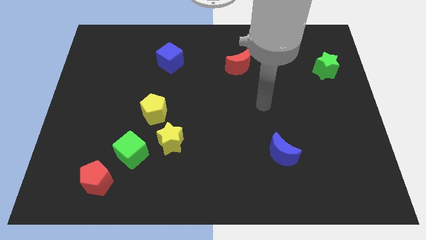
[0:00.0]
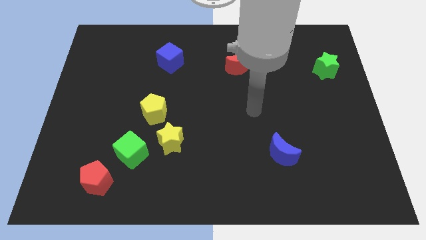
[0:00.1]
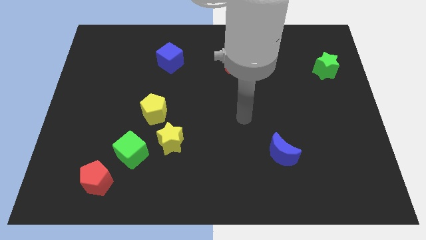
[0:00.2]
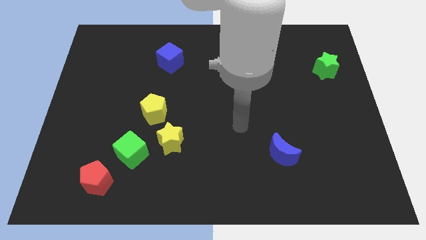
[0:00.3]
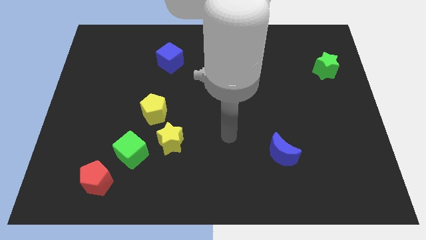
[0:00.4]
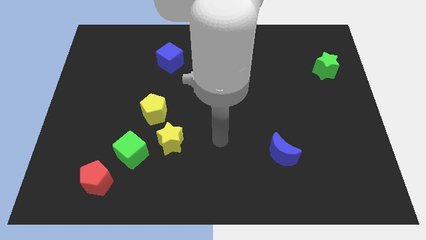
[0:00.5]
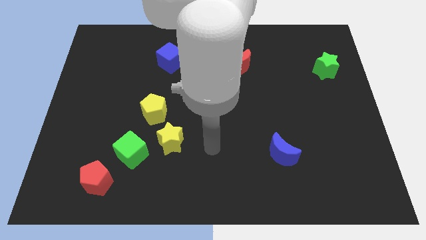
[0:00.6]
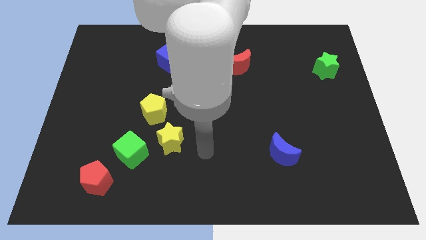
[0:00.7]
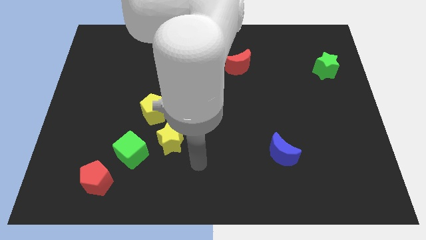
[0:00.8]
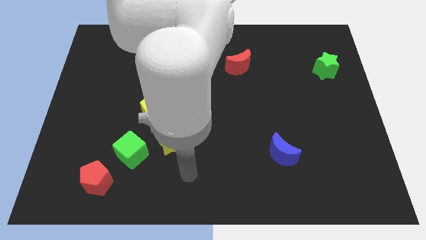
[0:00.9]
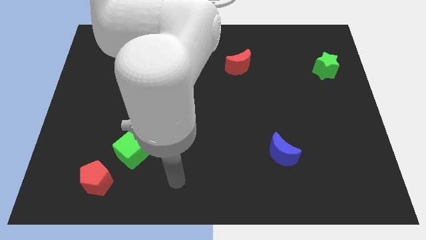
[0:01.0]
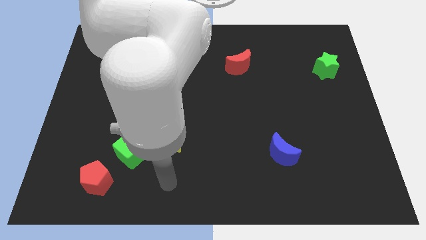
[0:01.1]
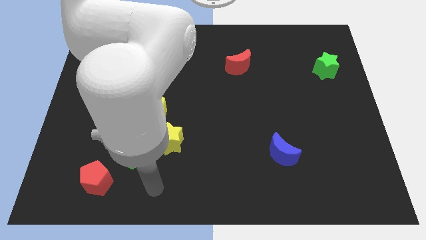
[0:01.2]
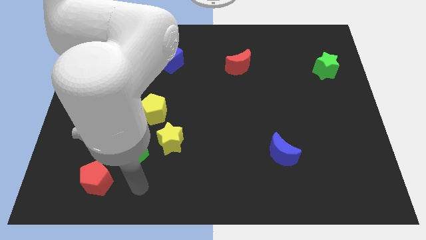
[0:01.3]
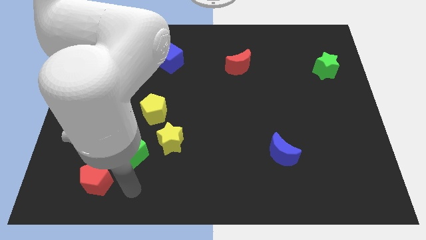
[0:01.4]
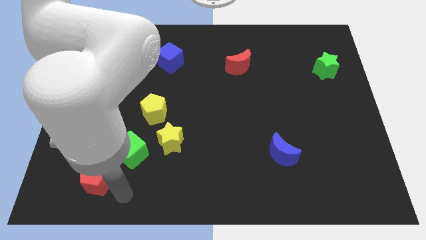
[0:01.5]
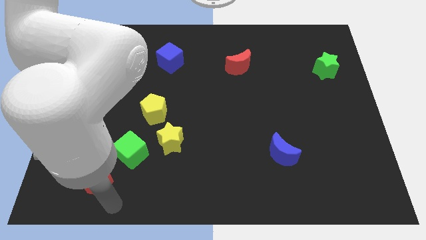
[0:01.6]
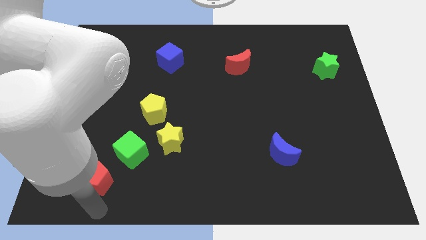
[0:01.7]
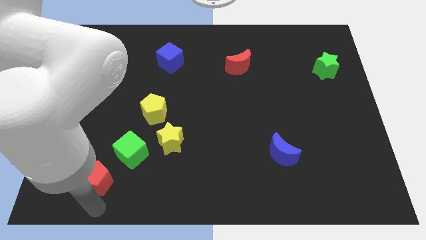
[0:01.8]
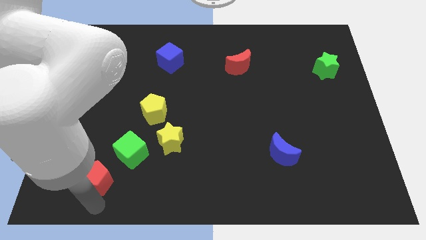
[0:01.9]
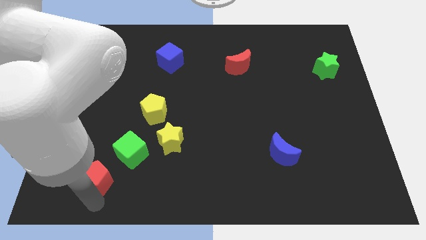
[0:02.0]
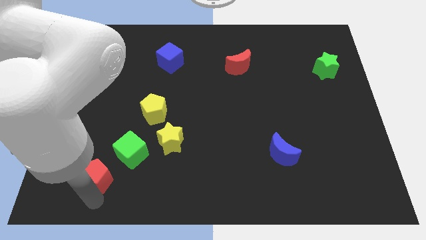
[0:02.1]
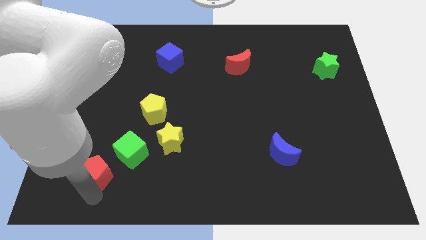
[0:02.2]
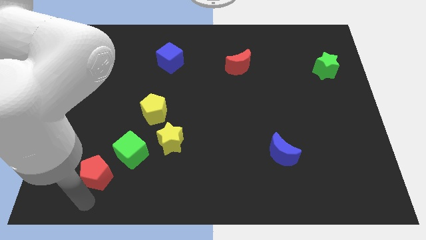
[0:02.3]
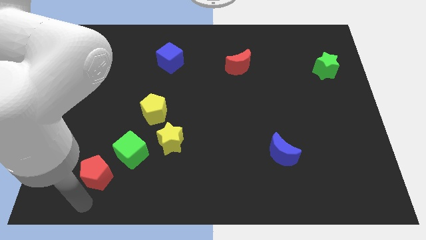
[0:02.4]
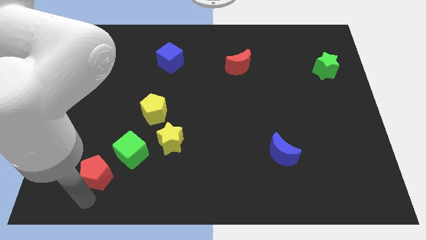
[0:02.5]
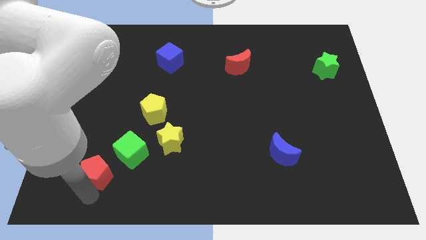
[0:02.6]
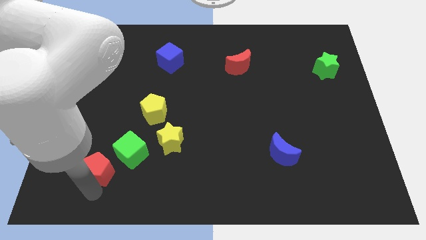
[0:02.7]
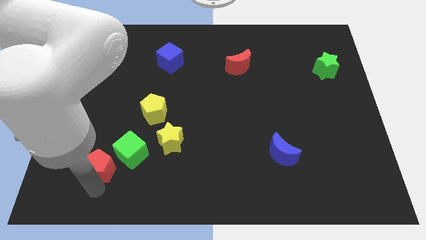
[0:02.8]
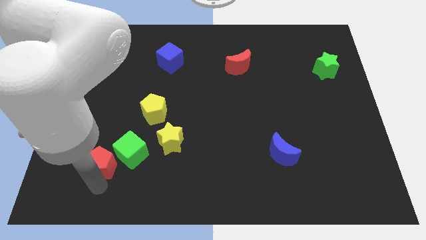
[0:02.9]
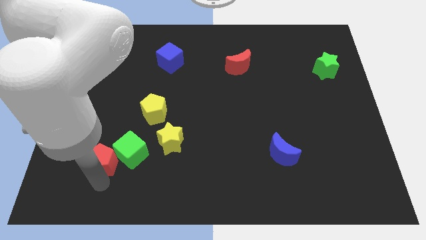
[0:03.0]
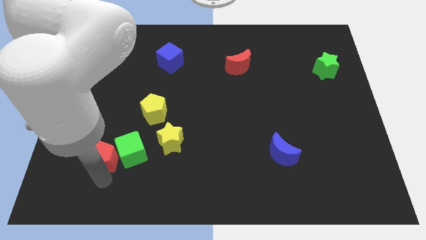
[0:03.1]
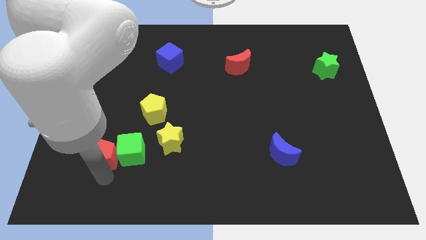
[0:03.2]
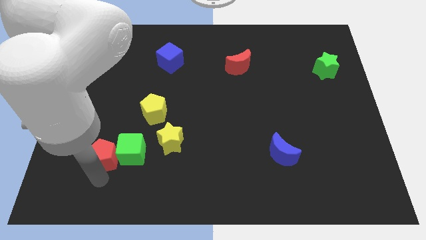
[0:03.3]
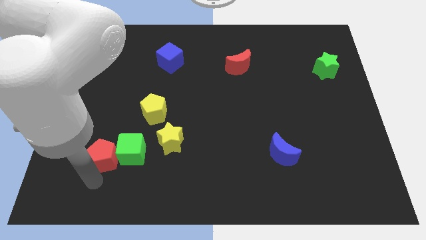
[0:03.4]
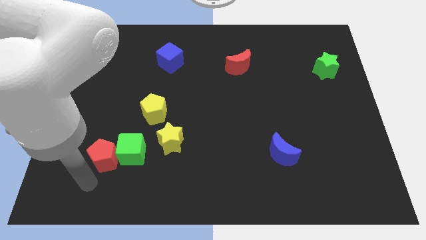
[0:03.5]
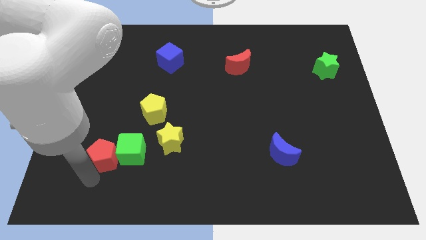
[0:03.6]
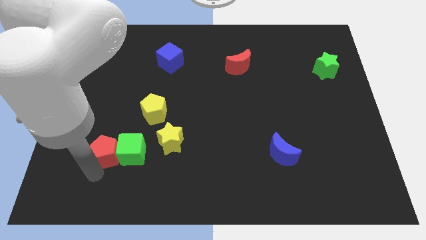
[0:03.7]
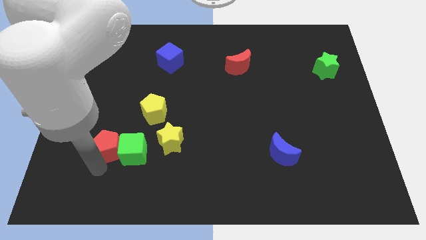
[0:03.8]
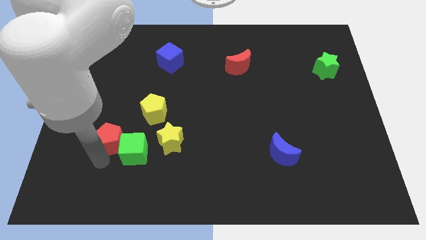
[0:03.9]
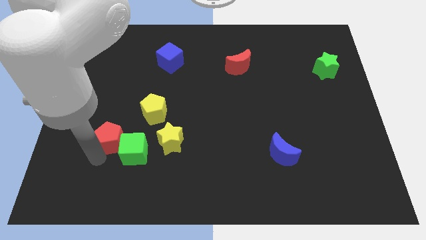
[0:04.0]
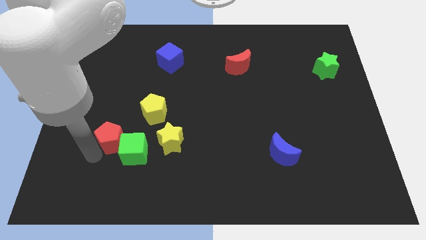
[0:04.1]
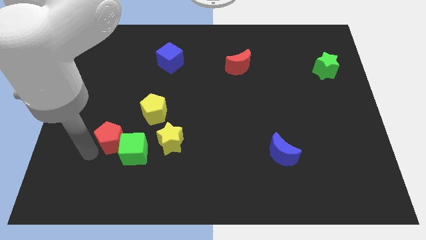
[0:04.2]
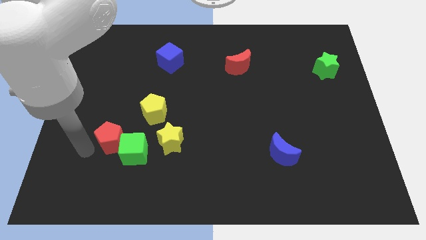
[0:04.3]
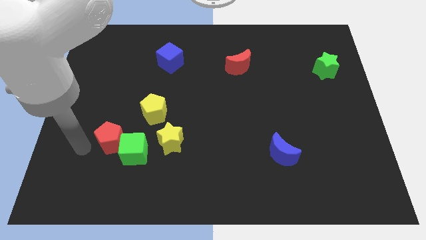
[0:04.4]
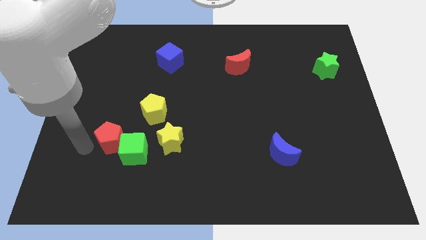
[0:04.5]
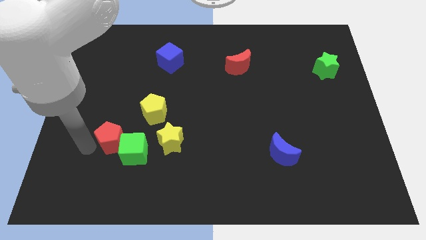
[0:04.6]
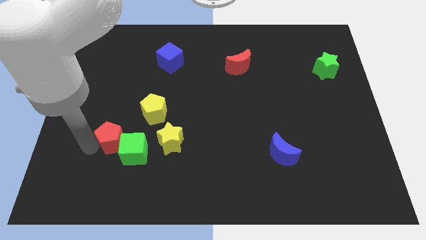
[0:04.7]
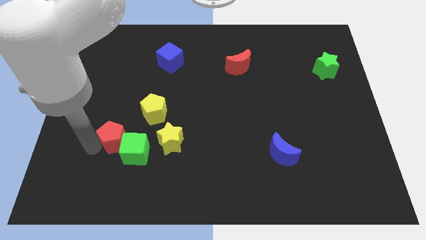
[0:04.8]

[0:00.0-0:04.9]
slightly move the red pentagon up and right diagonally

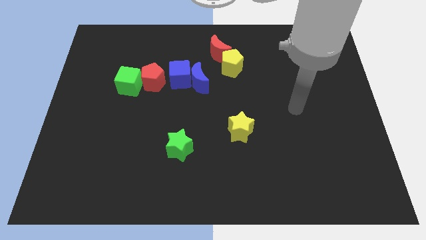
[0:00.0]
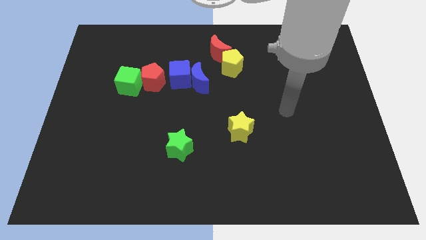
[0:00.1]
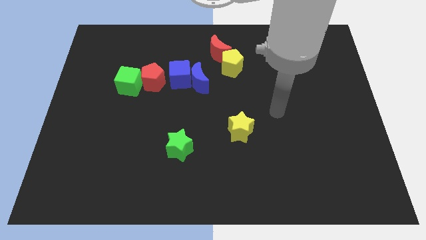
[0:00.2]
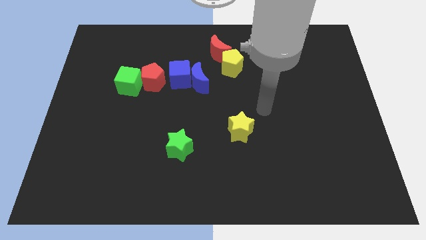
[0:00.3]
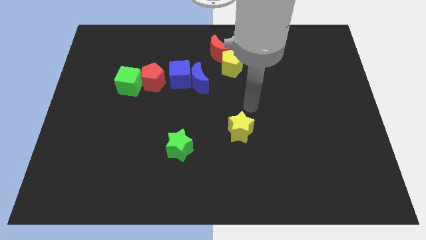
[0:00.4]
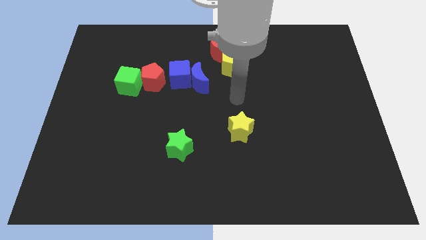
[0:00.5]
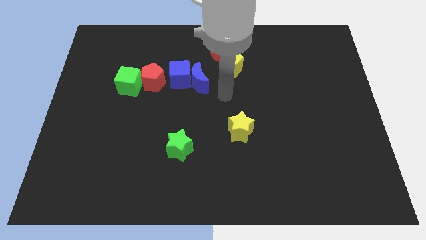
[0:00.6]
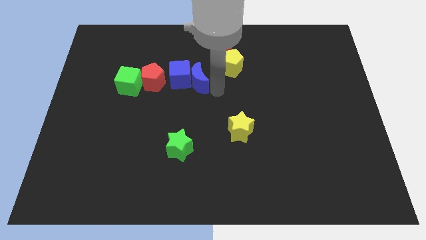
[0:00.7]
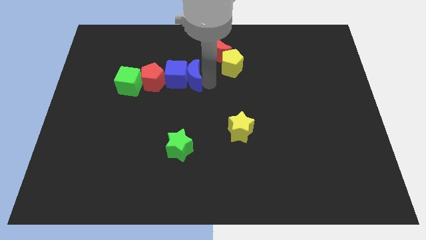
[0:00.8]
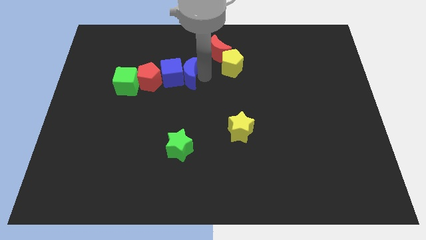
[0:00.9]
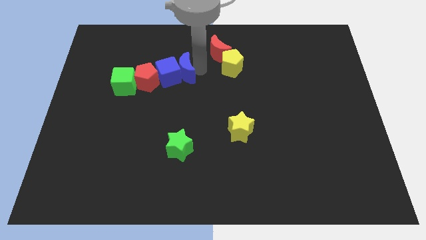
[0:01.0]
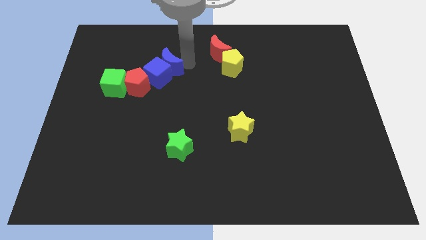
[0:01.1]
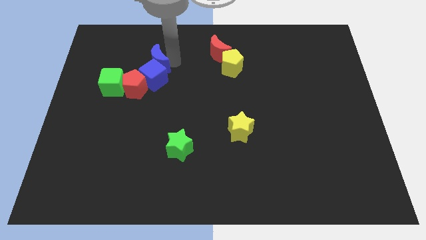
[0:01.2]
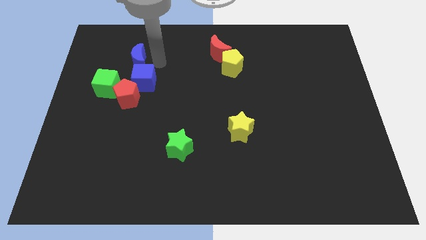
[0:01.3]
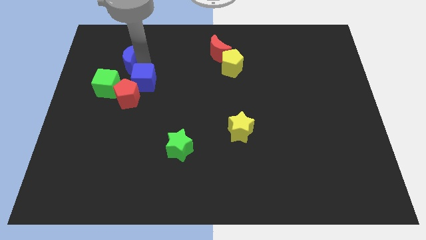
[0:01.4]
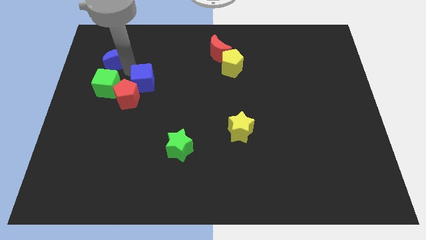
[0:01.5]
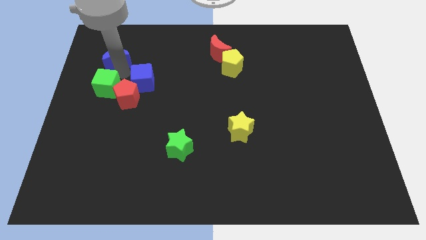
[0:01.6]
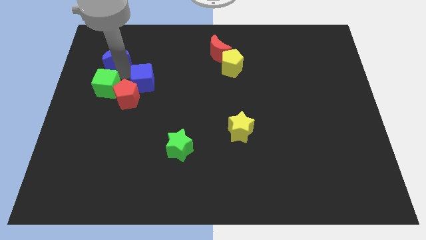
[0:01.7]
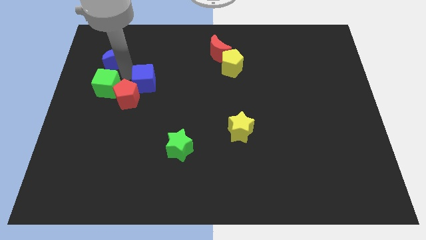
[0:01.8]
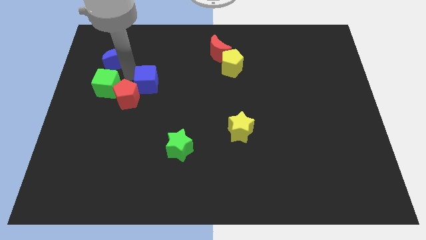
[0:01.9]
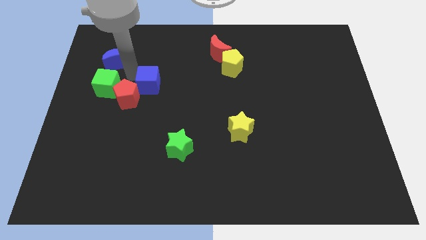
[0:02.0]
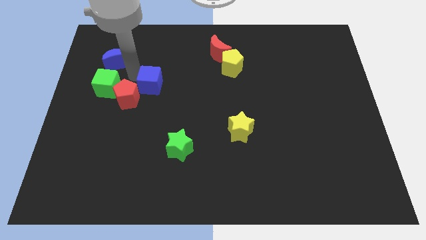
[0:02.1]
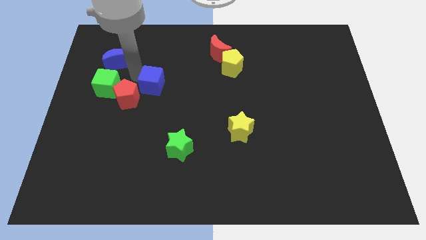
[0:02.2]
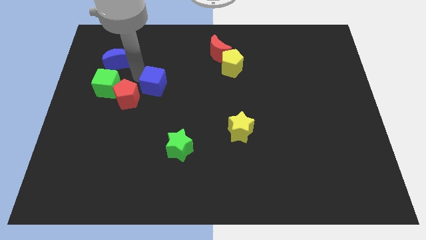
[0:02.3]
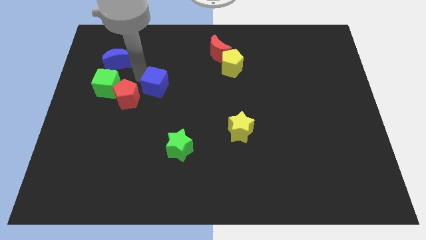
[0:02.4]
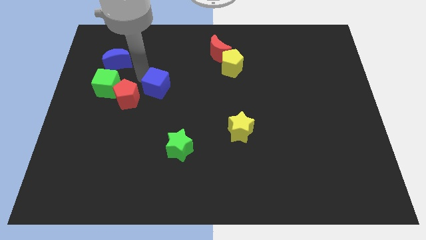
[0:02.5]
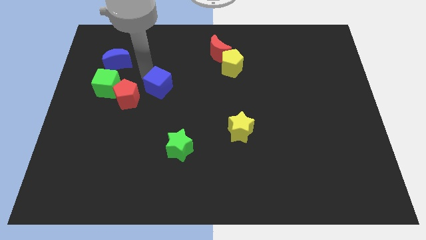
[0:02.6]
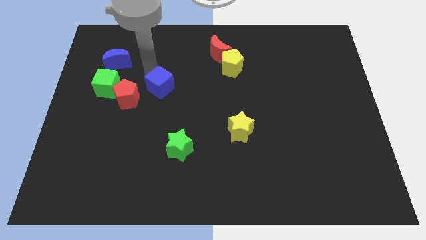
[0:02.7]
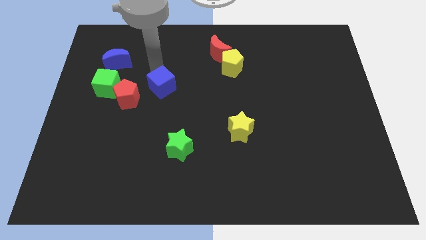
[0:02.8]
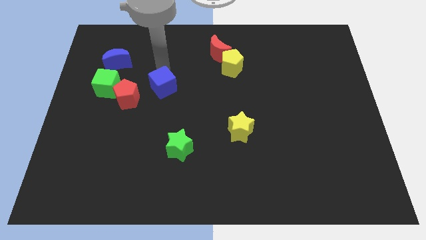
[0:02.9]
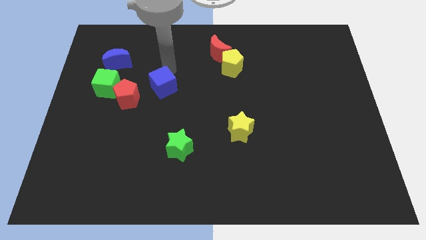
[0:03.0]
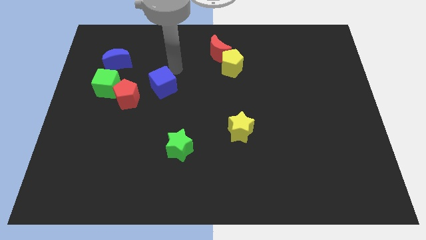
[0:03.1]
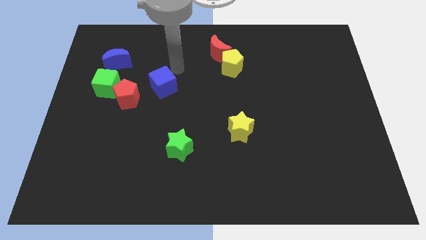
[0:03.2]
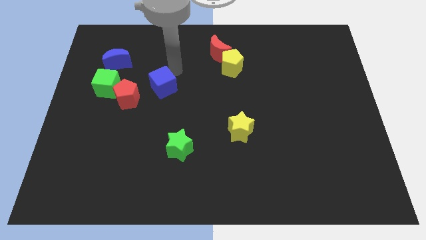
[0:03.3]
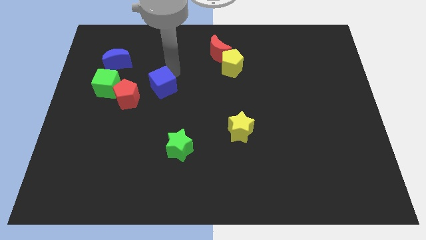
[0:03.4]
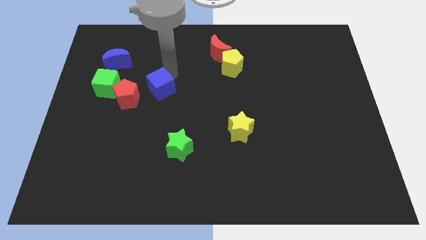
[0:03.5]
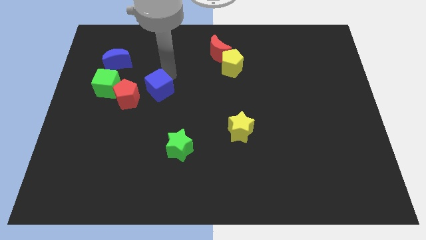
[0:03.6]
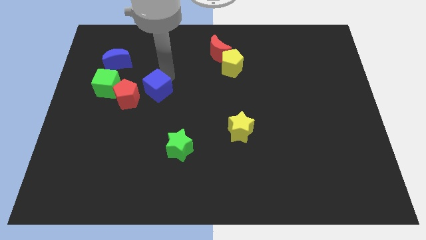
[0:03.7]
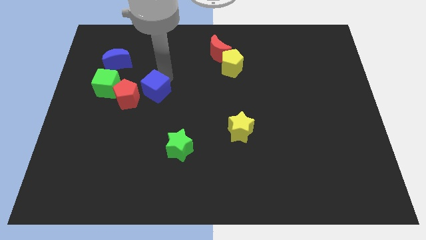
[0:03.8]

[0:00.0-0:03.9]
slide the blue cube somewhat down and left
